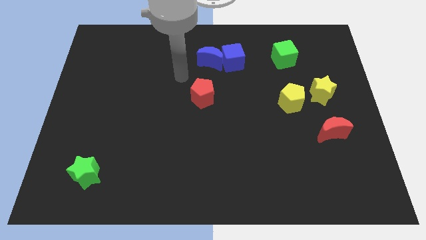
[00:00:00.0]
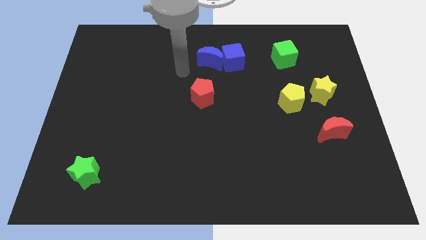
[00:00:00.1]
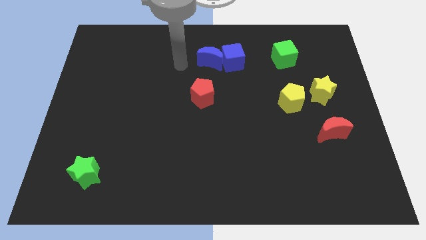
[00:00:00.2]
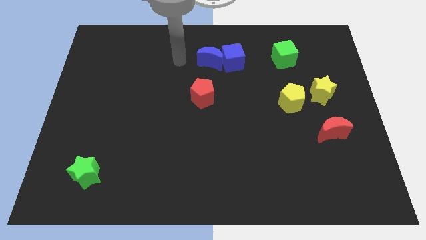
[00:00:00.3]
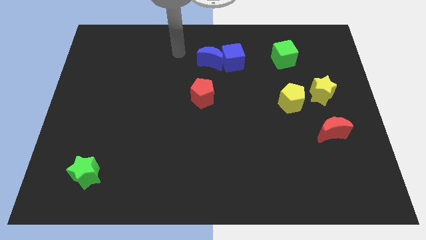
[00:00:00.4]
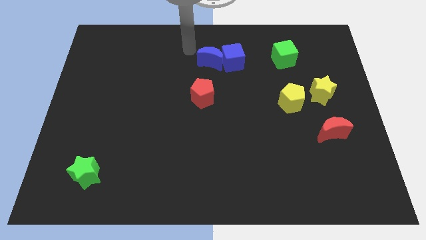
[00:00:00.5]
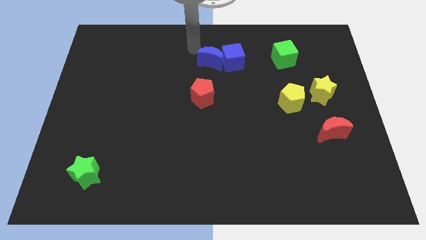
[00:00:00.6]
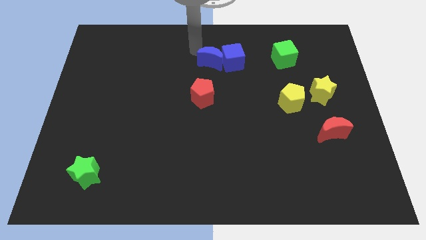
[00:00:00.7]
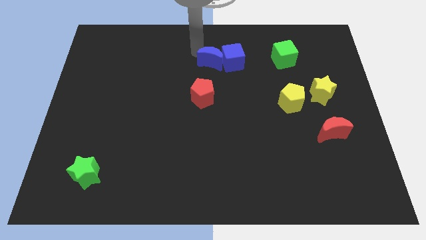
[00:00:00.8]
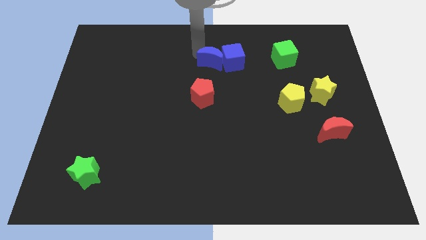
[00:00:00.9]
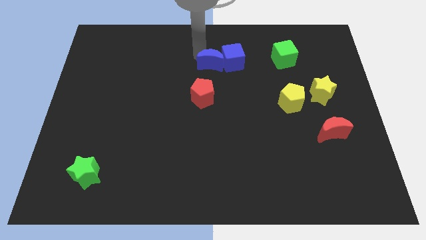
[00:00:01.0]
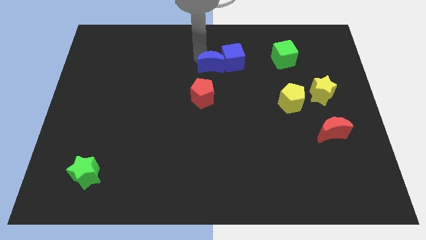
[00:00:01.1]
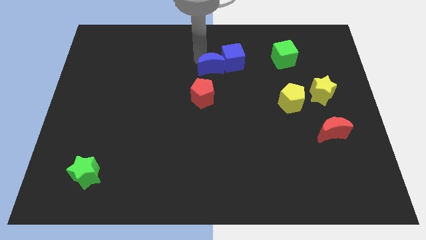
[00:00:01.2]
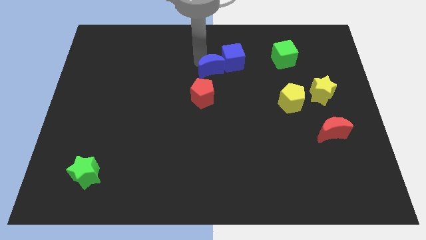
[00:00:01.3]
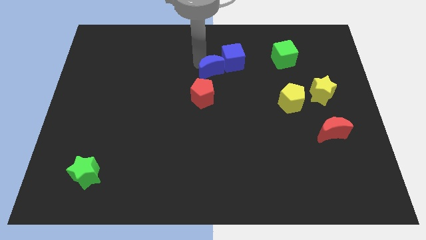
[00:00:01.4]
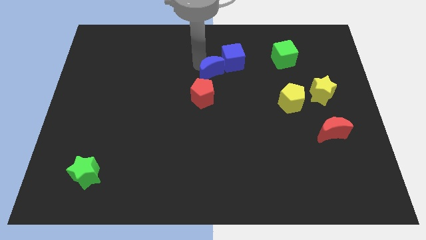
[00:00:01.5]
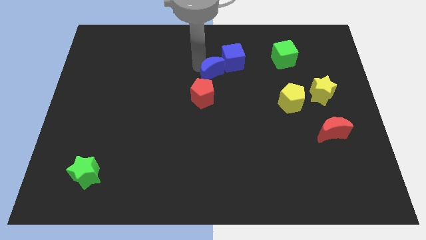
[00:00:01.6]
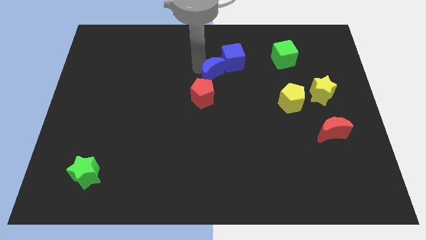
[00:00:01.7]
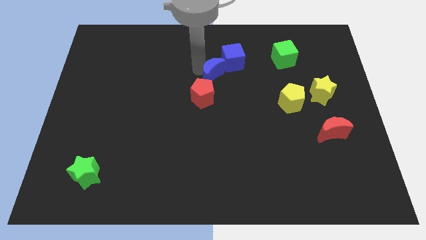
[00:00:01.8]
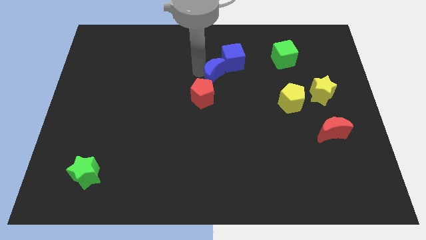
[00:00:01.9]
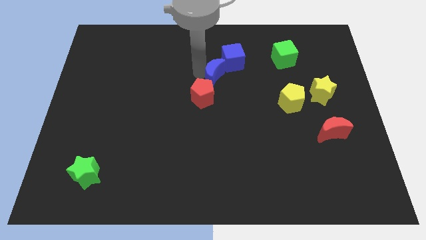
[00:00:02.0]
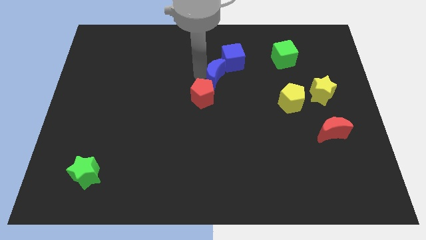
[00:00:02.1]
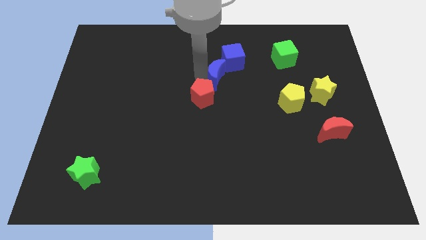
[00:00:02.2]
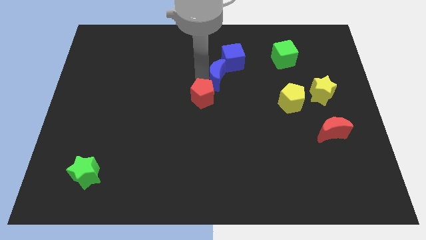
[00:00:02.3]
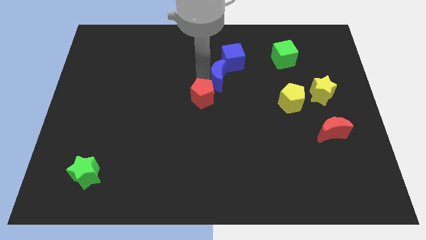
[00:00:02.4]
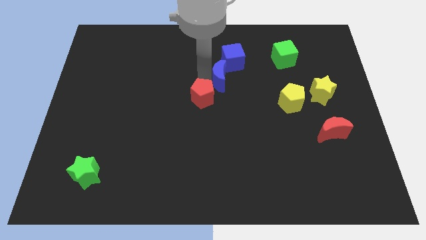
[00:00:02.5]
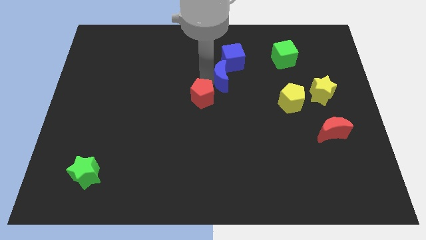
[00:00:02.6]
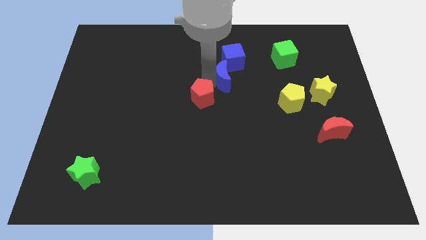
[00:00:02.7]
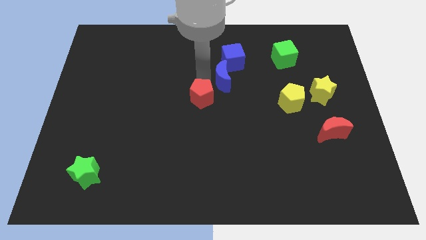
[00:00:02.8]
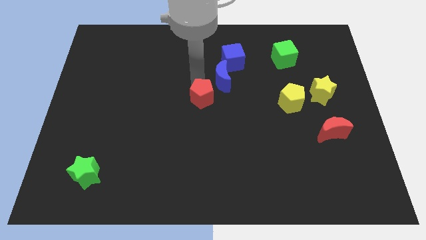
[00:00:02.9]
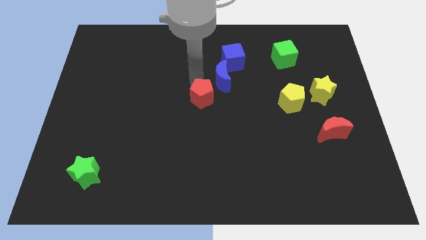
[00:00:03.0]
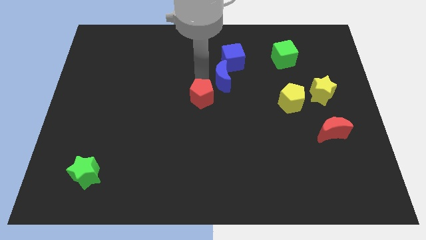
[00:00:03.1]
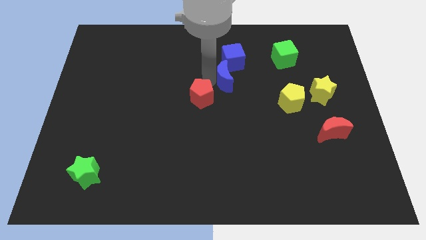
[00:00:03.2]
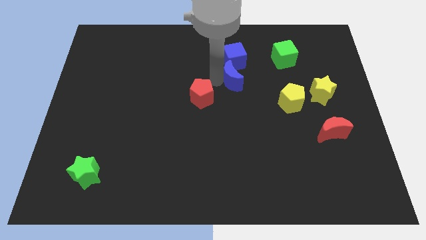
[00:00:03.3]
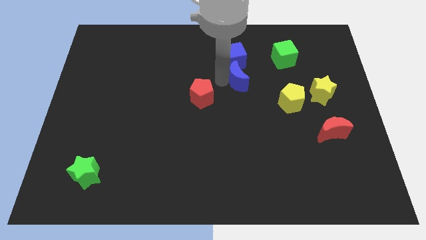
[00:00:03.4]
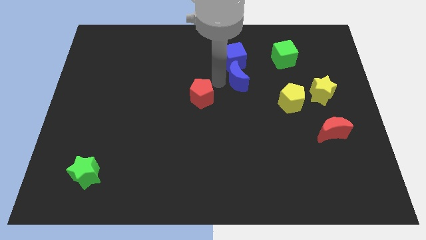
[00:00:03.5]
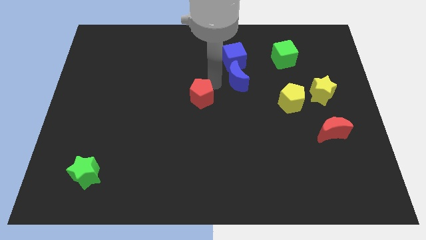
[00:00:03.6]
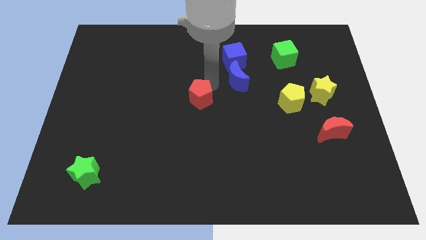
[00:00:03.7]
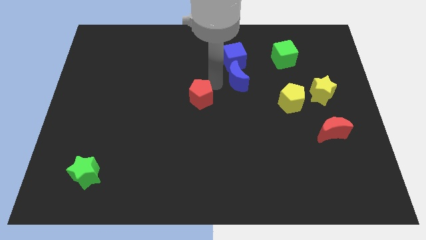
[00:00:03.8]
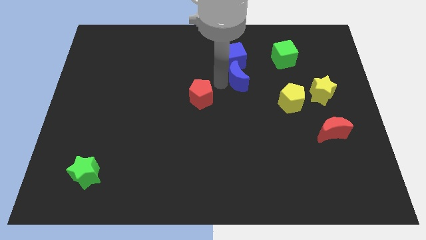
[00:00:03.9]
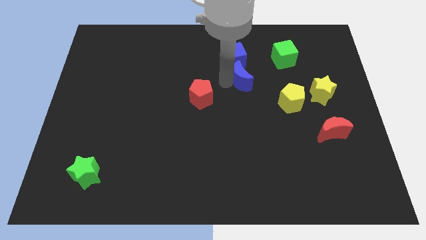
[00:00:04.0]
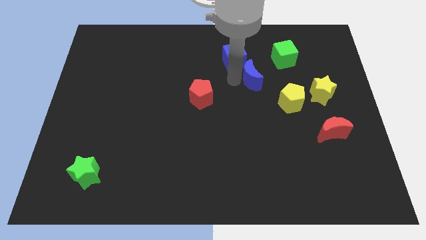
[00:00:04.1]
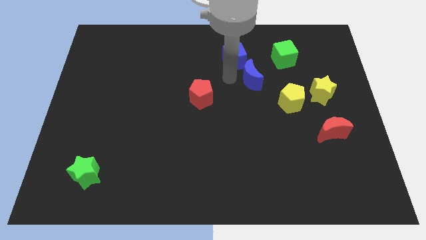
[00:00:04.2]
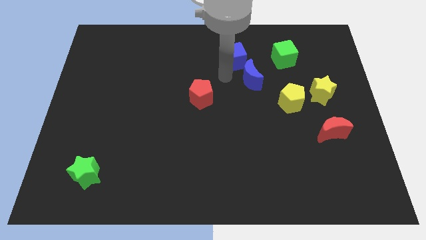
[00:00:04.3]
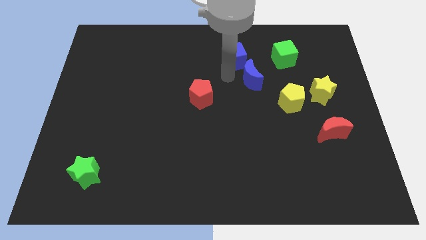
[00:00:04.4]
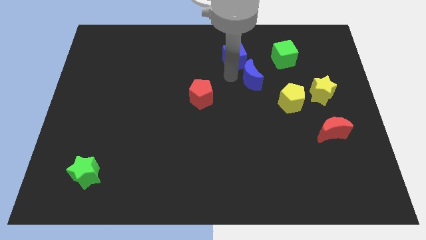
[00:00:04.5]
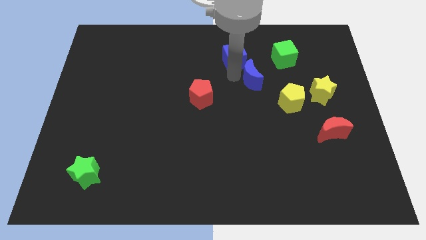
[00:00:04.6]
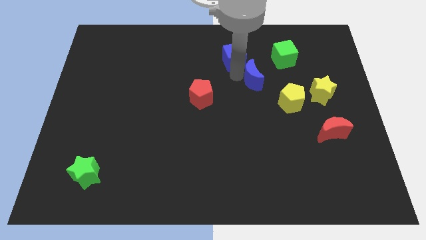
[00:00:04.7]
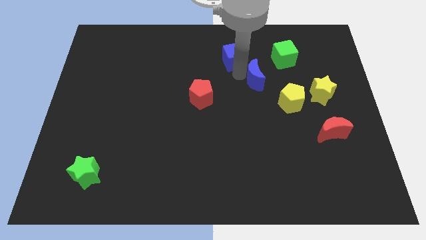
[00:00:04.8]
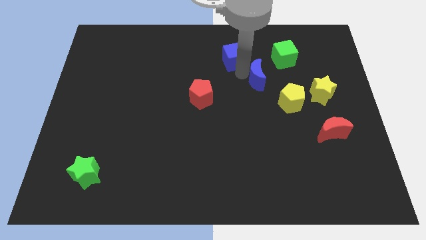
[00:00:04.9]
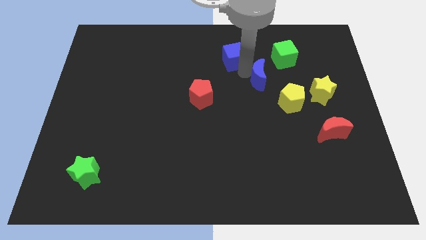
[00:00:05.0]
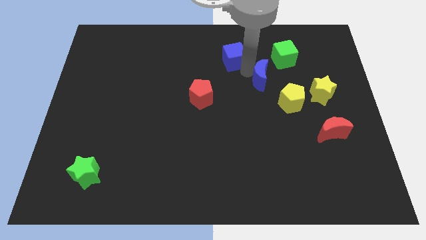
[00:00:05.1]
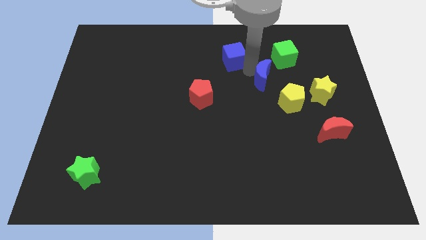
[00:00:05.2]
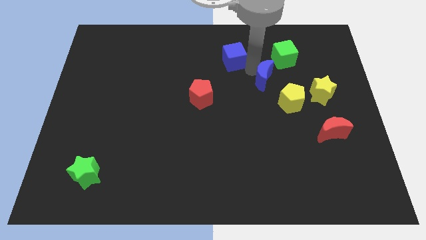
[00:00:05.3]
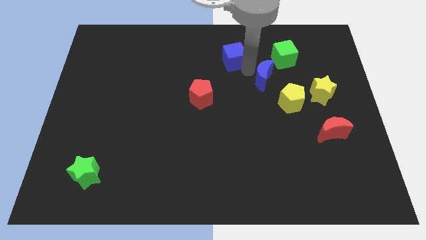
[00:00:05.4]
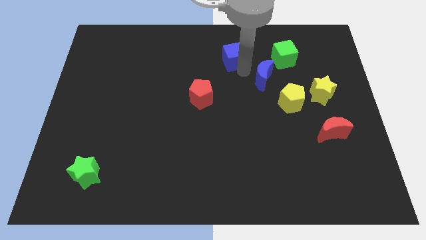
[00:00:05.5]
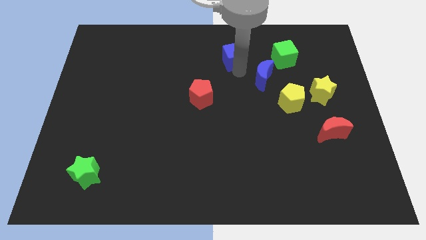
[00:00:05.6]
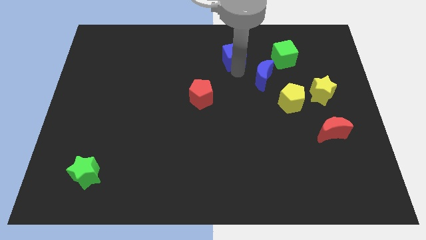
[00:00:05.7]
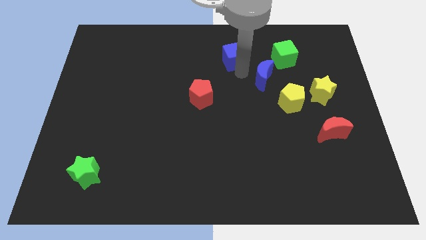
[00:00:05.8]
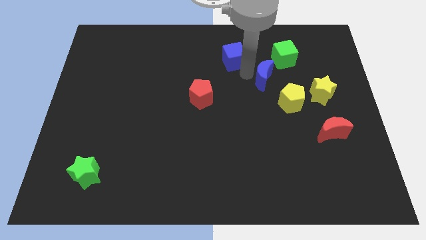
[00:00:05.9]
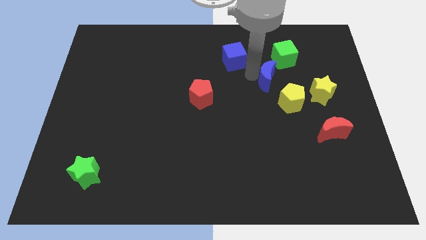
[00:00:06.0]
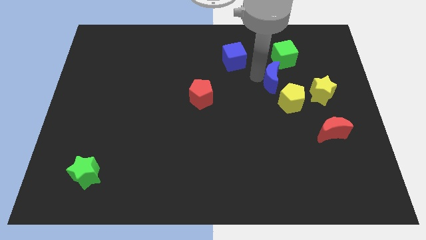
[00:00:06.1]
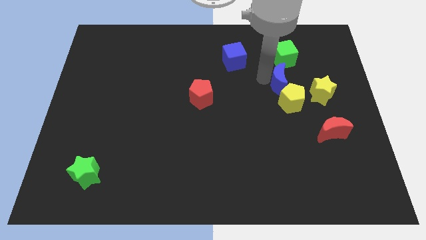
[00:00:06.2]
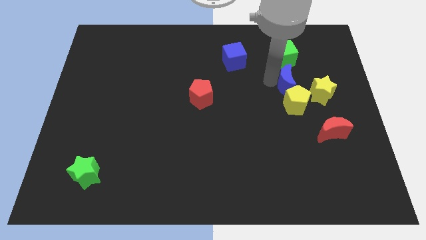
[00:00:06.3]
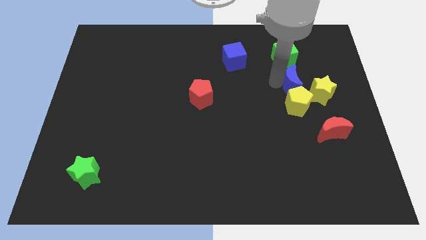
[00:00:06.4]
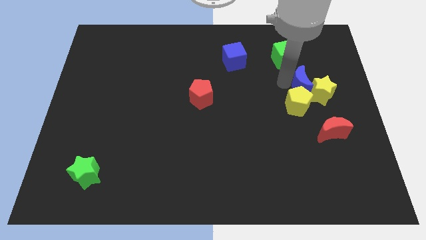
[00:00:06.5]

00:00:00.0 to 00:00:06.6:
put the blue moon next to the yellow star

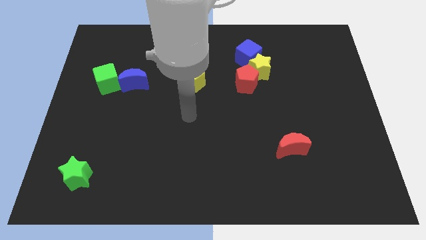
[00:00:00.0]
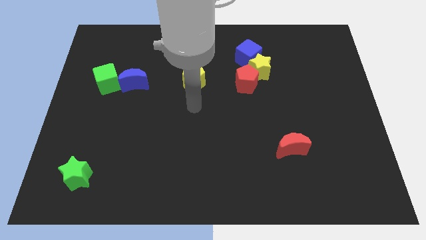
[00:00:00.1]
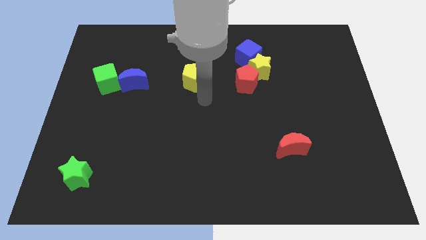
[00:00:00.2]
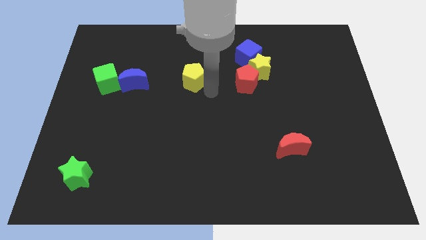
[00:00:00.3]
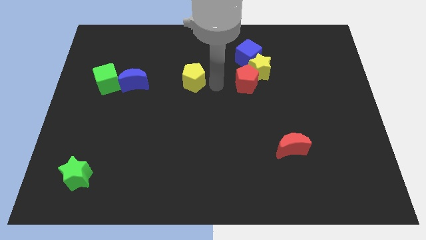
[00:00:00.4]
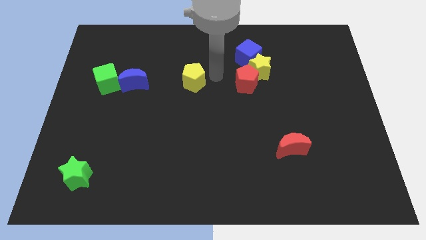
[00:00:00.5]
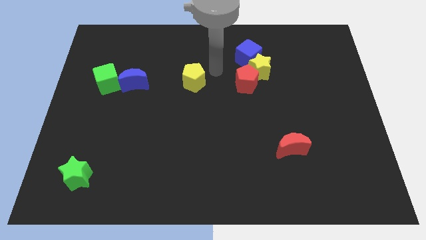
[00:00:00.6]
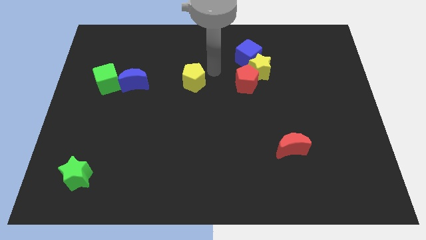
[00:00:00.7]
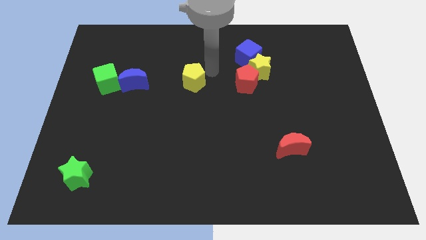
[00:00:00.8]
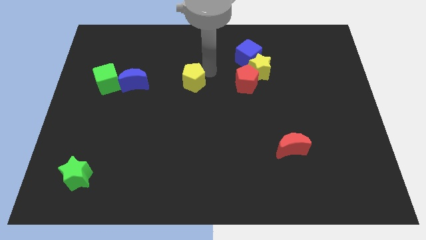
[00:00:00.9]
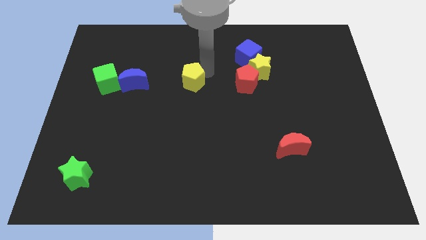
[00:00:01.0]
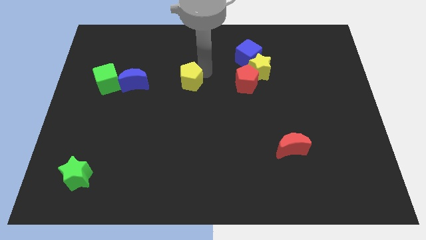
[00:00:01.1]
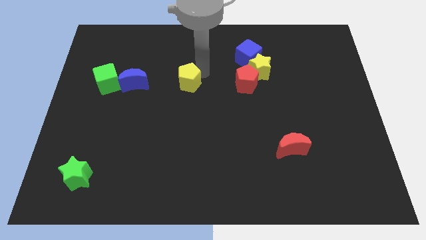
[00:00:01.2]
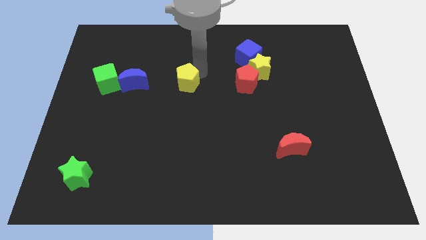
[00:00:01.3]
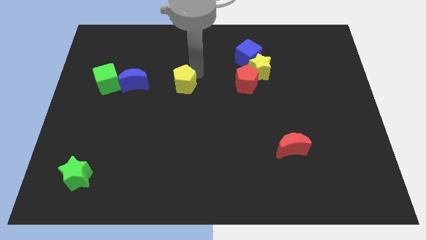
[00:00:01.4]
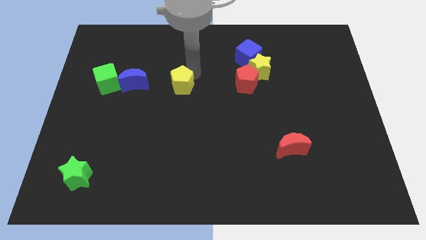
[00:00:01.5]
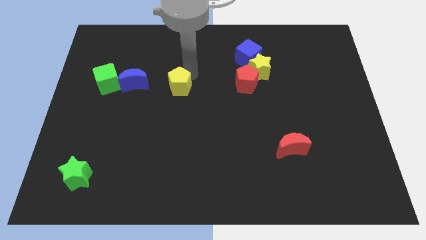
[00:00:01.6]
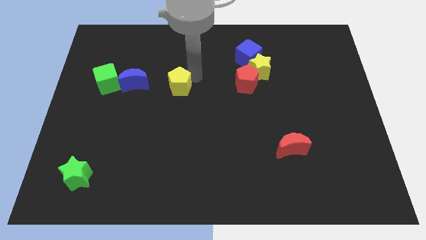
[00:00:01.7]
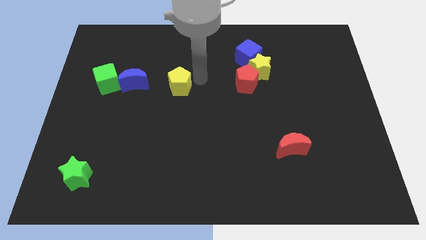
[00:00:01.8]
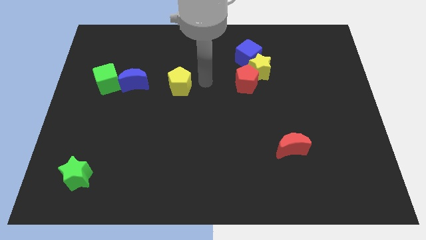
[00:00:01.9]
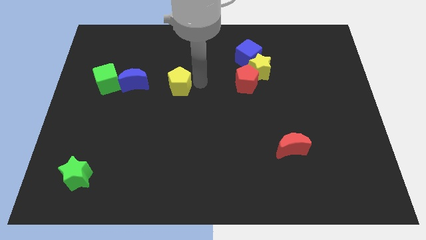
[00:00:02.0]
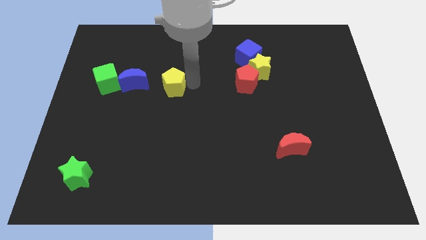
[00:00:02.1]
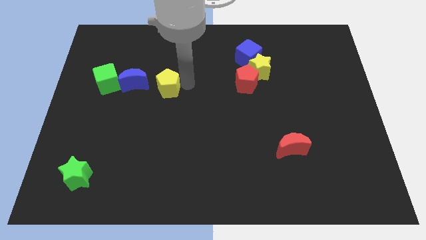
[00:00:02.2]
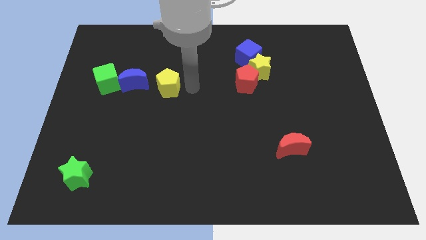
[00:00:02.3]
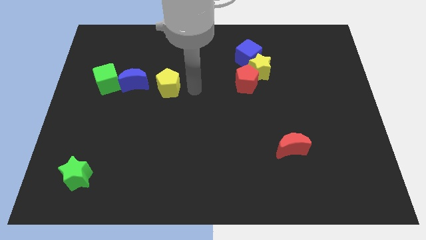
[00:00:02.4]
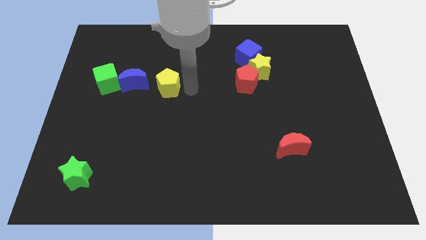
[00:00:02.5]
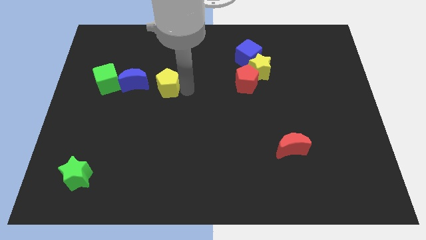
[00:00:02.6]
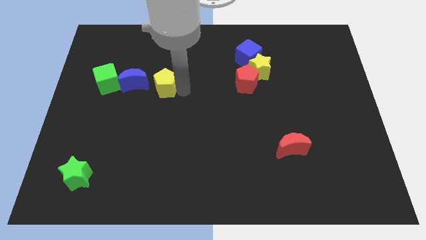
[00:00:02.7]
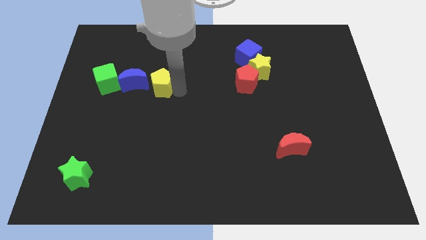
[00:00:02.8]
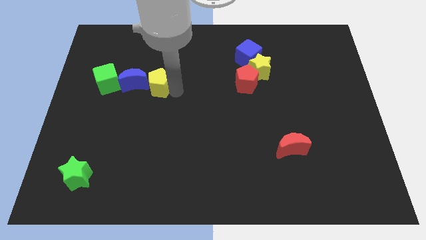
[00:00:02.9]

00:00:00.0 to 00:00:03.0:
slide the yellow pentagon close to the blue moon
